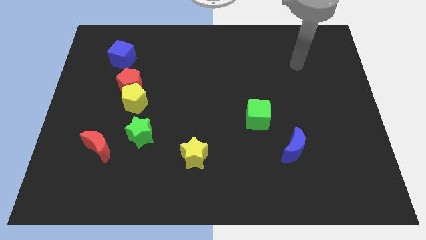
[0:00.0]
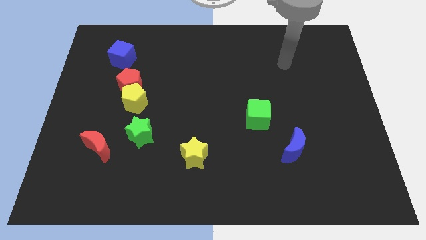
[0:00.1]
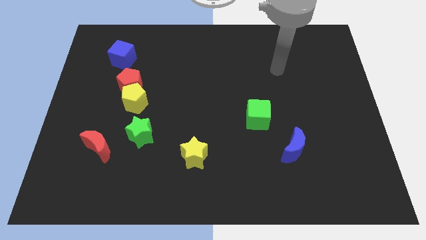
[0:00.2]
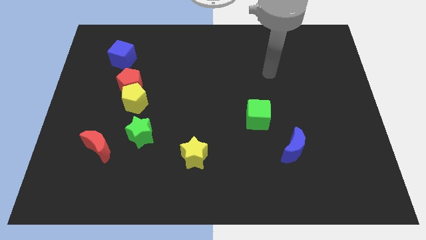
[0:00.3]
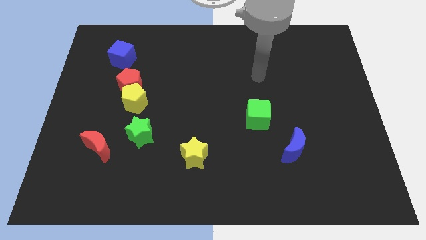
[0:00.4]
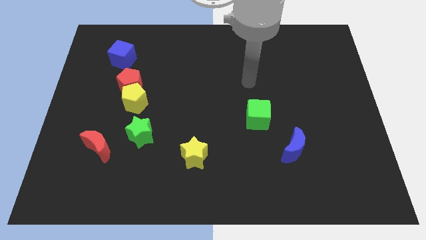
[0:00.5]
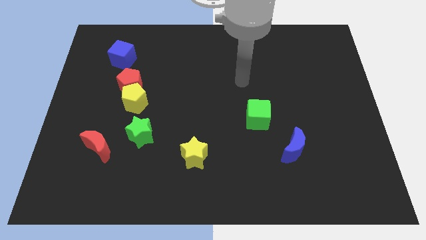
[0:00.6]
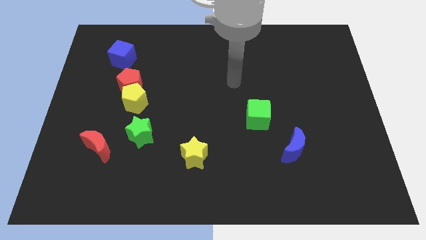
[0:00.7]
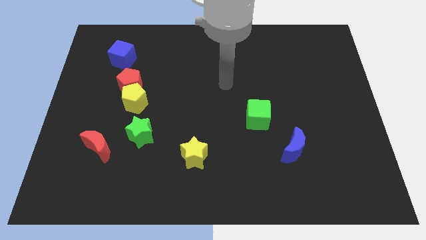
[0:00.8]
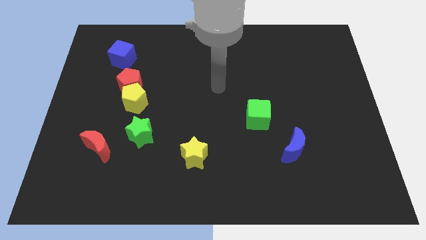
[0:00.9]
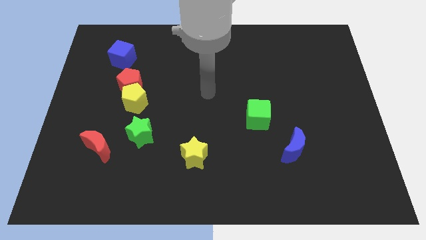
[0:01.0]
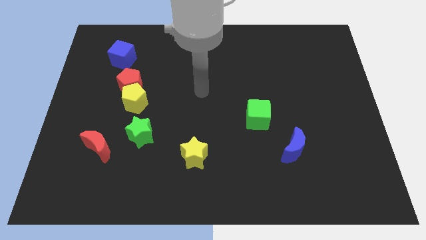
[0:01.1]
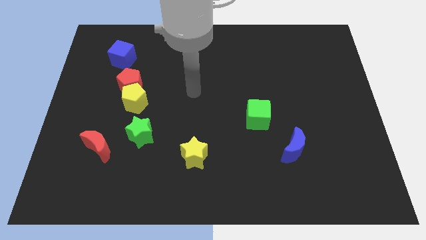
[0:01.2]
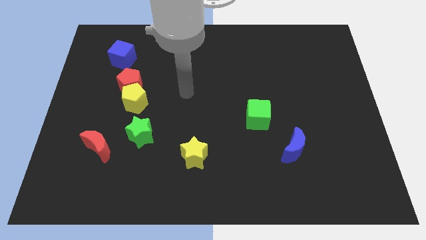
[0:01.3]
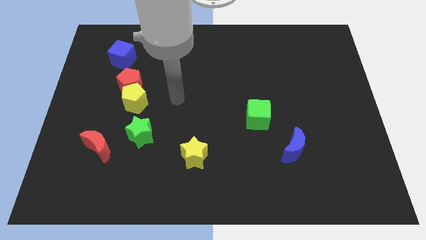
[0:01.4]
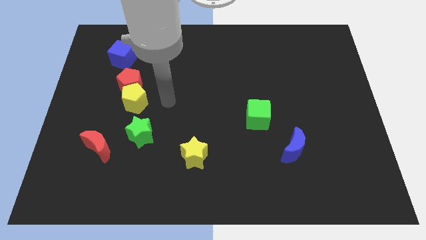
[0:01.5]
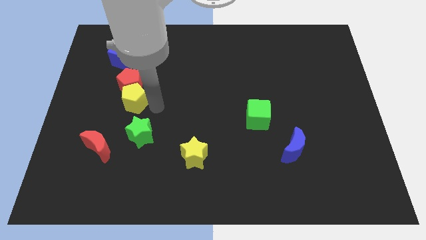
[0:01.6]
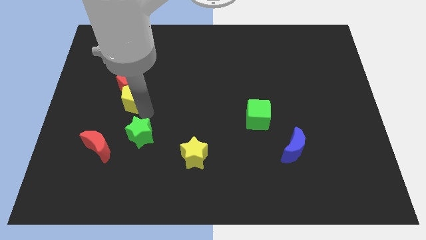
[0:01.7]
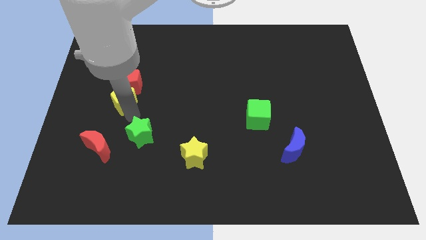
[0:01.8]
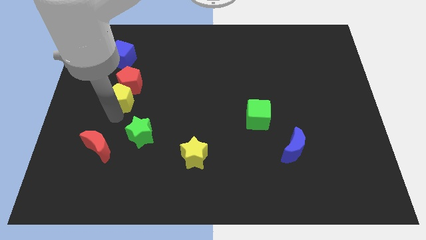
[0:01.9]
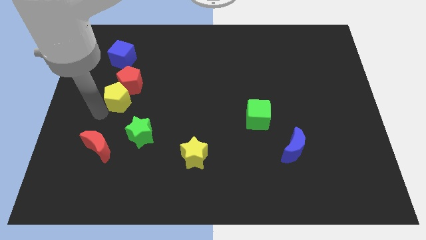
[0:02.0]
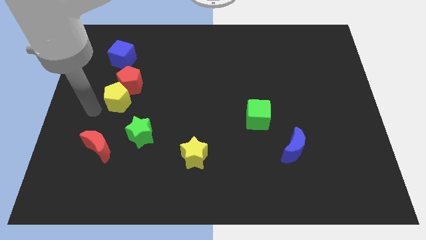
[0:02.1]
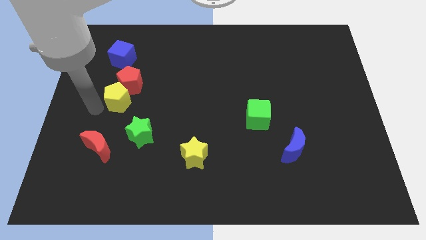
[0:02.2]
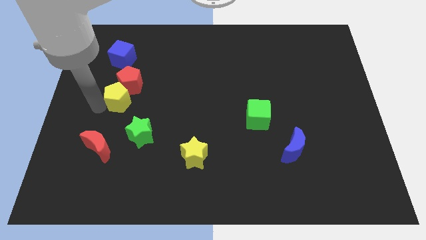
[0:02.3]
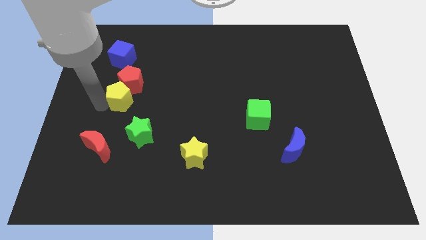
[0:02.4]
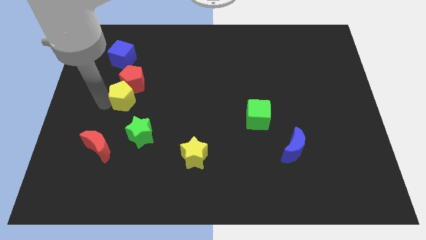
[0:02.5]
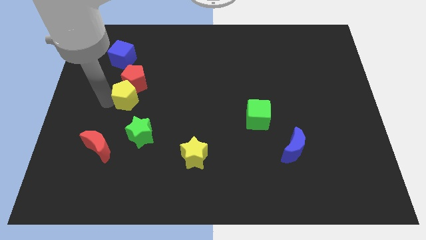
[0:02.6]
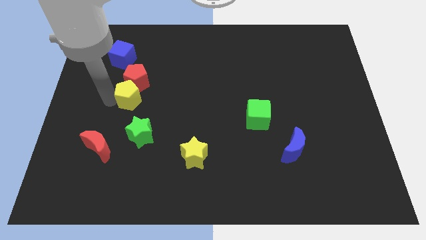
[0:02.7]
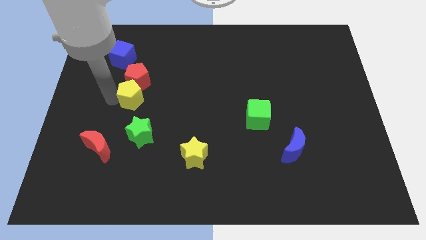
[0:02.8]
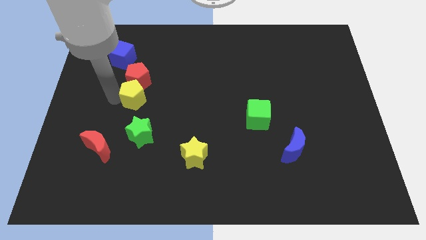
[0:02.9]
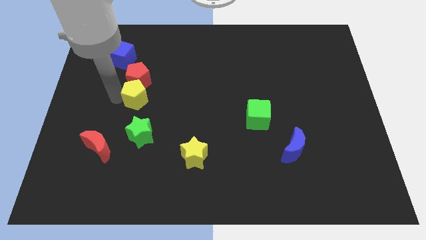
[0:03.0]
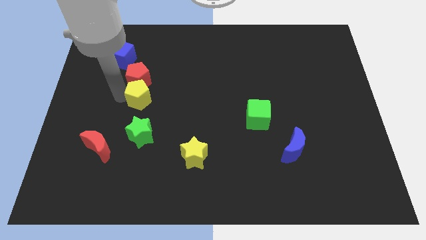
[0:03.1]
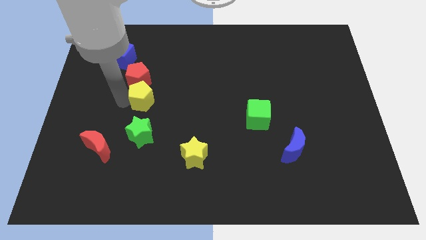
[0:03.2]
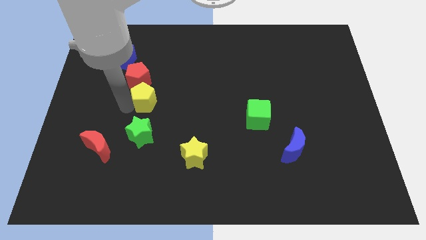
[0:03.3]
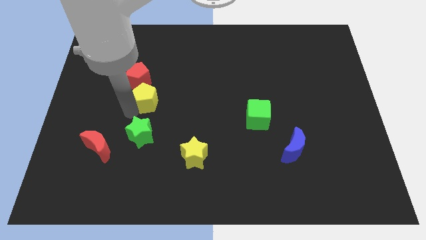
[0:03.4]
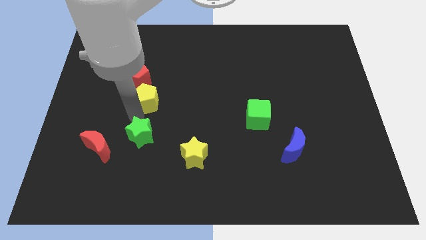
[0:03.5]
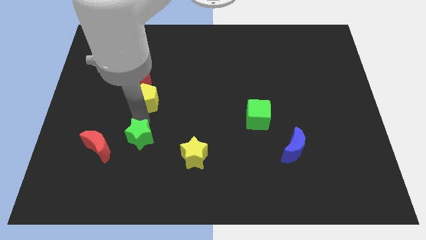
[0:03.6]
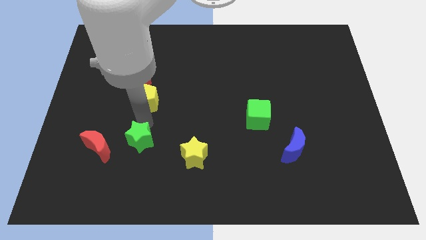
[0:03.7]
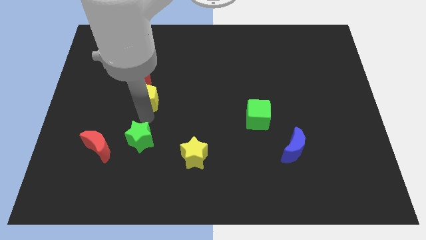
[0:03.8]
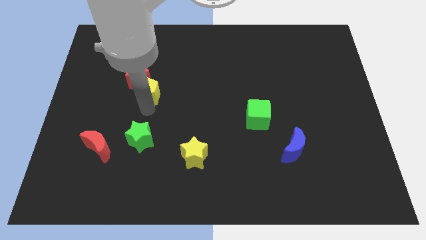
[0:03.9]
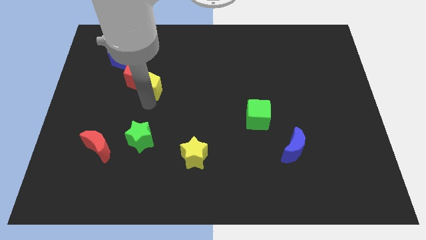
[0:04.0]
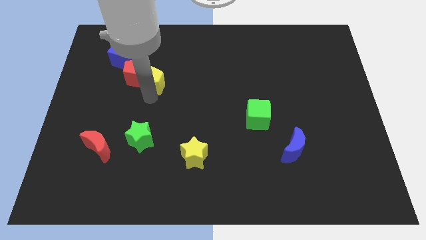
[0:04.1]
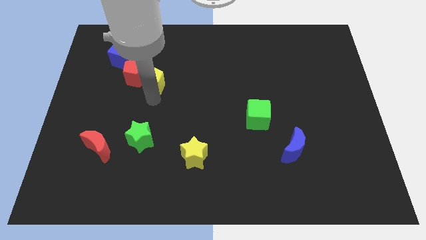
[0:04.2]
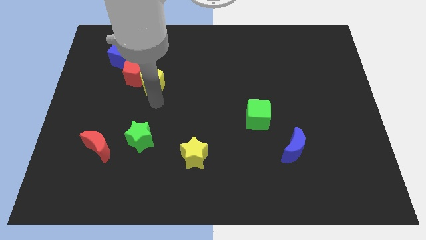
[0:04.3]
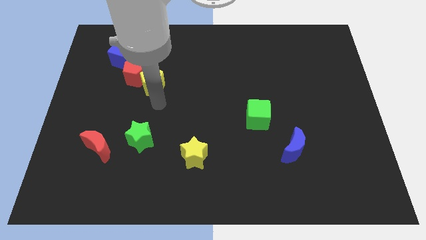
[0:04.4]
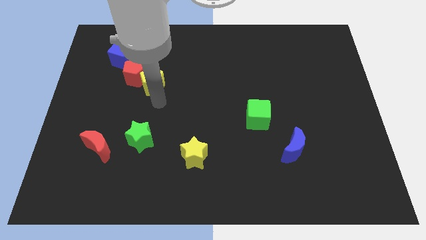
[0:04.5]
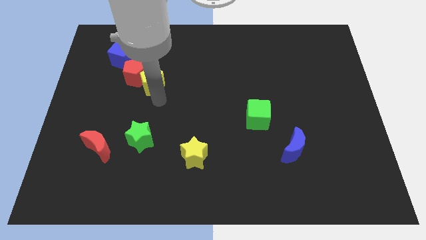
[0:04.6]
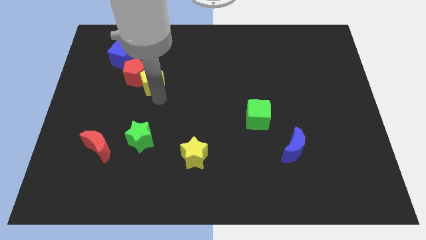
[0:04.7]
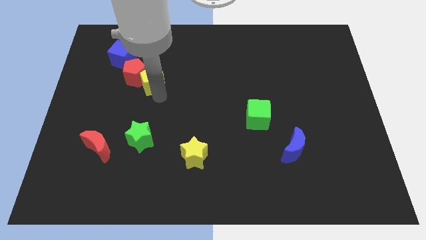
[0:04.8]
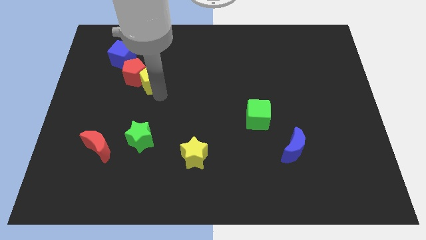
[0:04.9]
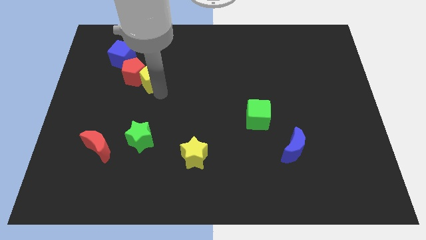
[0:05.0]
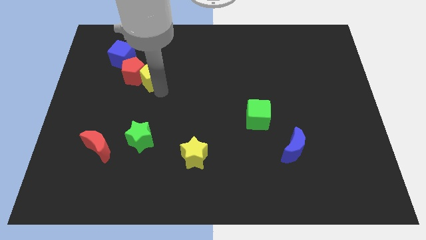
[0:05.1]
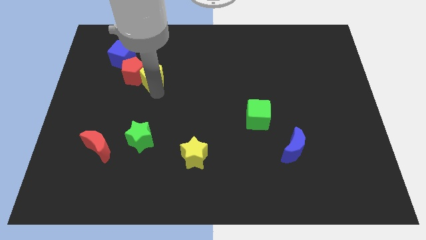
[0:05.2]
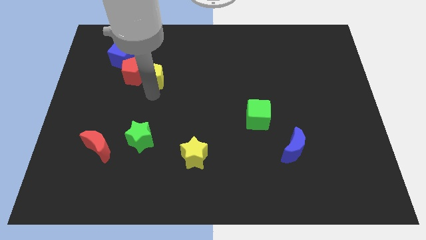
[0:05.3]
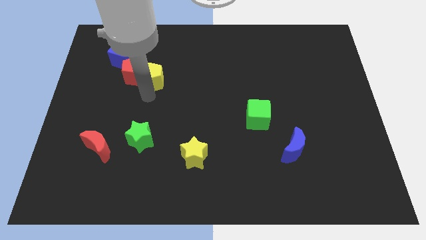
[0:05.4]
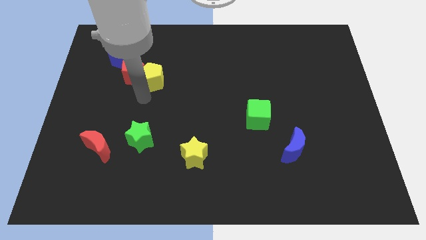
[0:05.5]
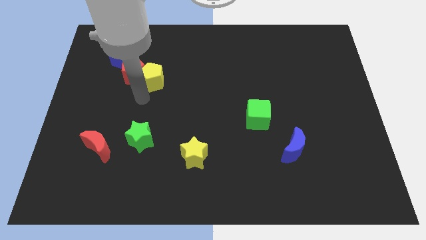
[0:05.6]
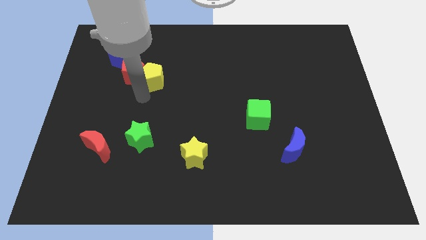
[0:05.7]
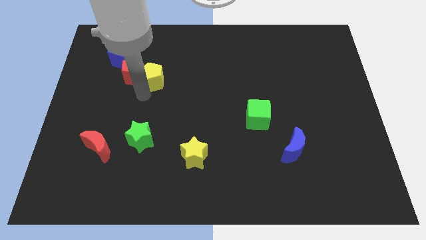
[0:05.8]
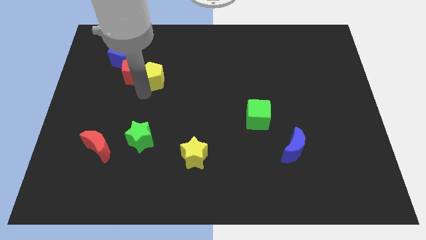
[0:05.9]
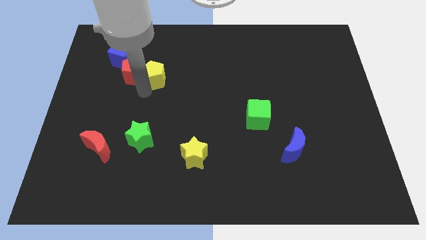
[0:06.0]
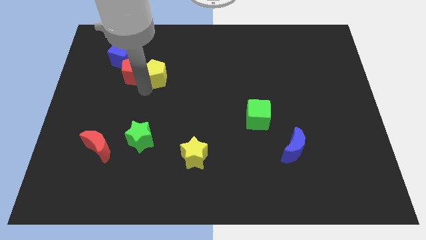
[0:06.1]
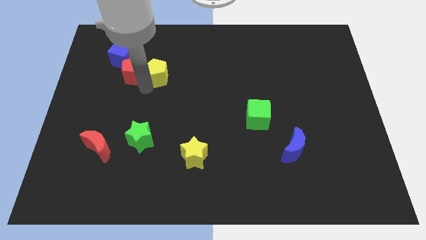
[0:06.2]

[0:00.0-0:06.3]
move the yellow pentagon away from the red pentagon and green star

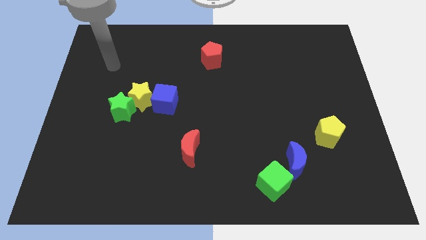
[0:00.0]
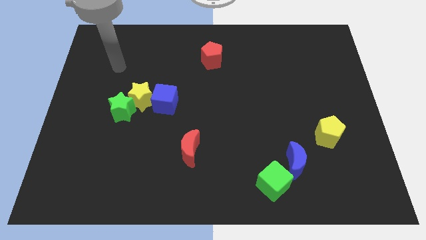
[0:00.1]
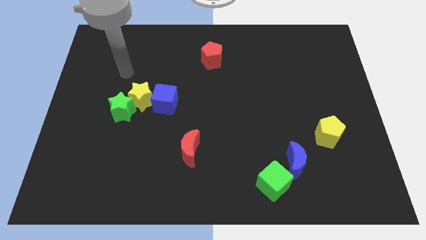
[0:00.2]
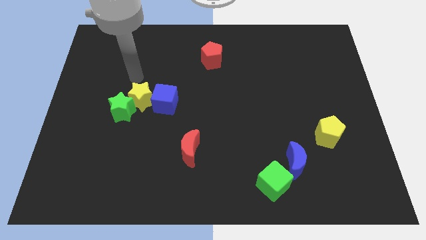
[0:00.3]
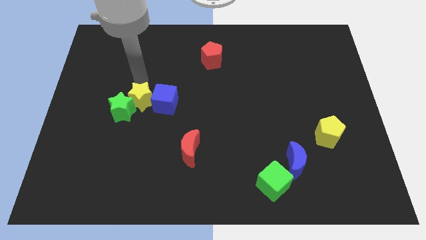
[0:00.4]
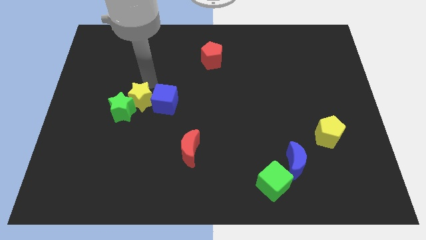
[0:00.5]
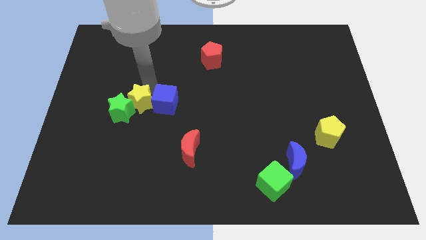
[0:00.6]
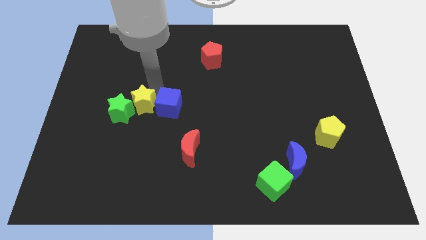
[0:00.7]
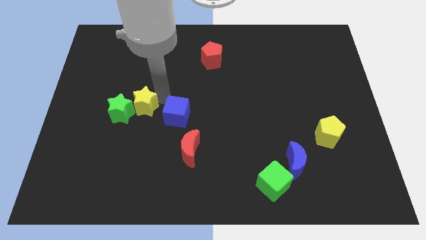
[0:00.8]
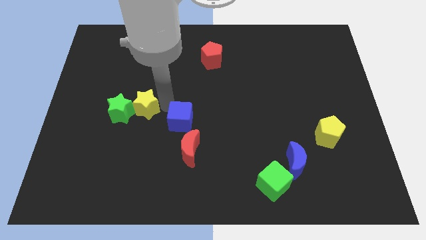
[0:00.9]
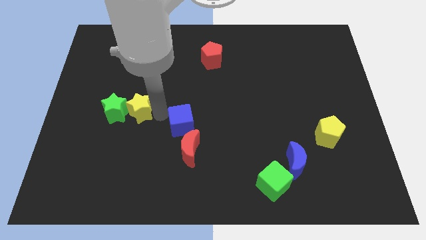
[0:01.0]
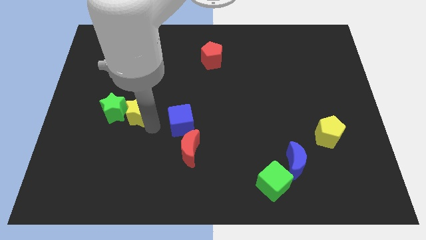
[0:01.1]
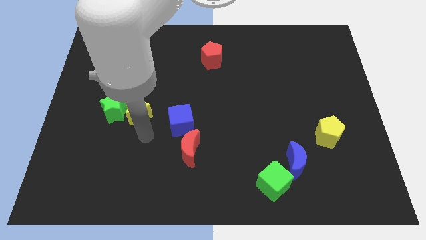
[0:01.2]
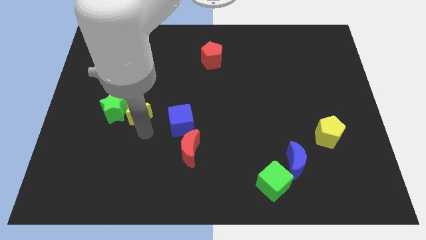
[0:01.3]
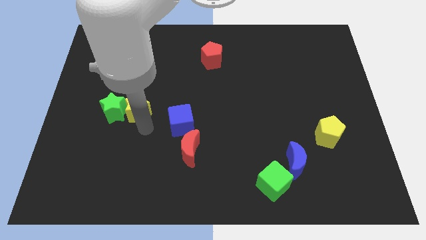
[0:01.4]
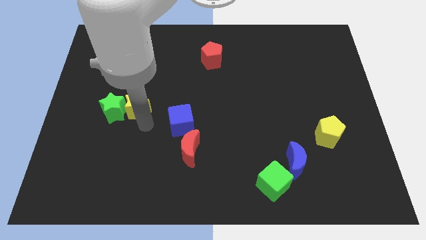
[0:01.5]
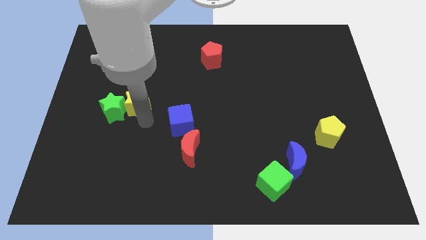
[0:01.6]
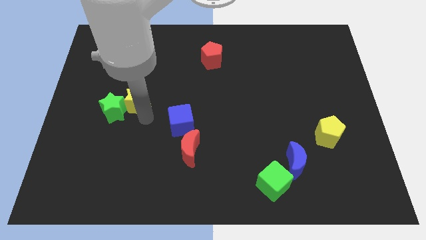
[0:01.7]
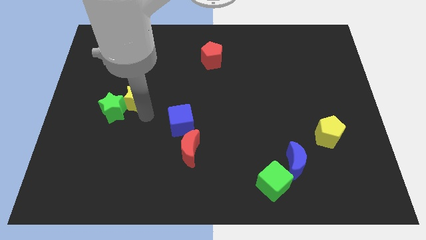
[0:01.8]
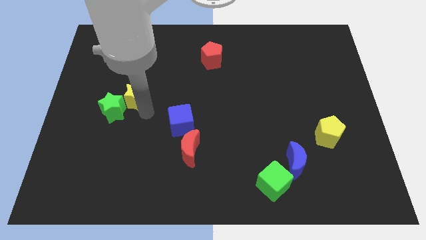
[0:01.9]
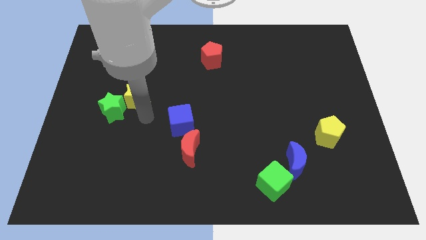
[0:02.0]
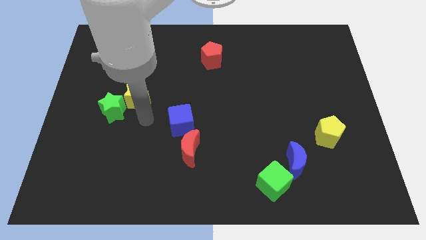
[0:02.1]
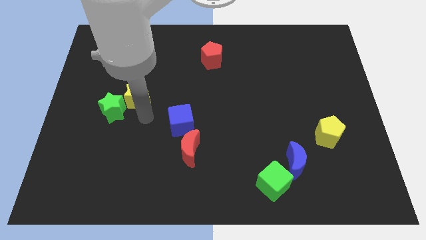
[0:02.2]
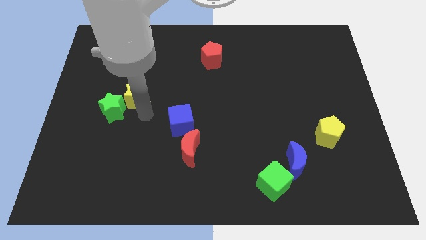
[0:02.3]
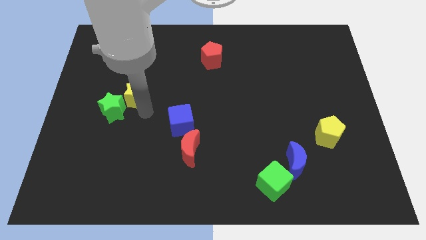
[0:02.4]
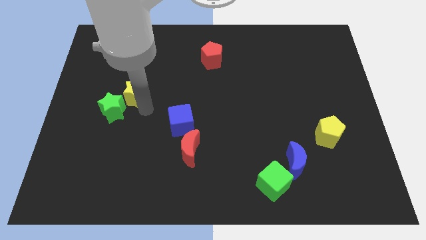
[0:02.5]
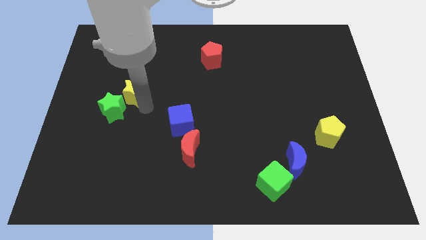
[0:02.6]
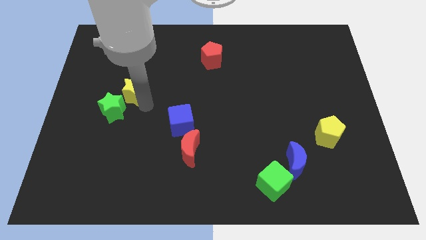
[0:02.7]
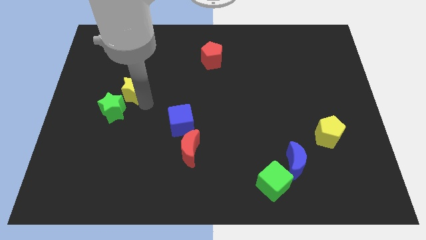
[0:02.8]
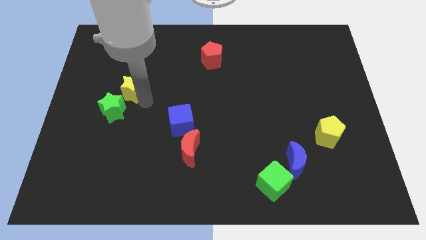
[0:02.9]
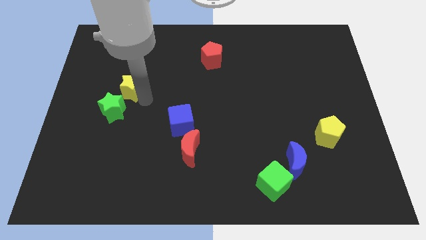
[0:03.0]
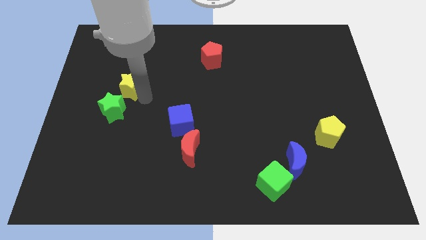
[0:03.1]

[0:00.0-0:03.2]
move the yellow star away from the green star and blue cube
